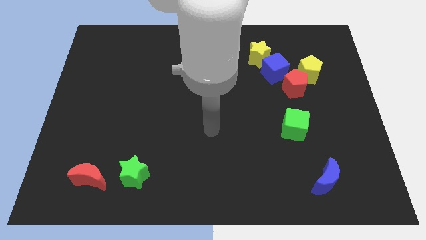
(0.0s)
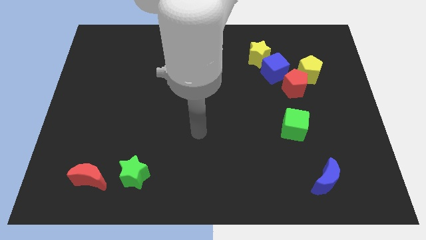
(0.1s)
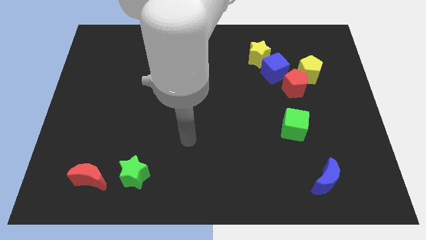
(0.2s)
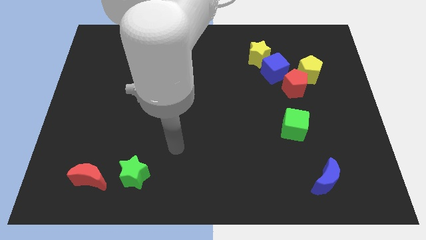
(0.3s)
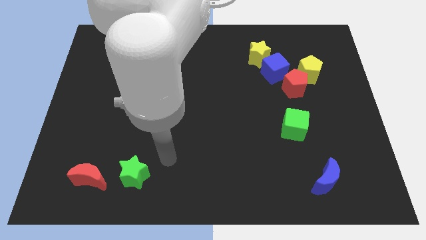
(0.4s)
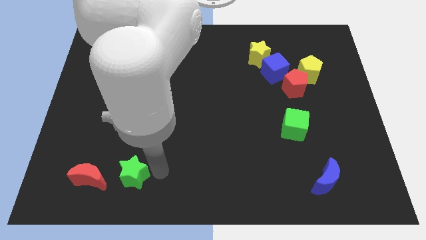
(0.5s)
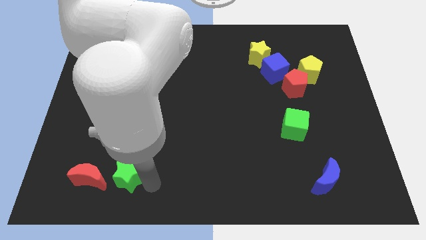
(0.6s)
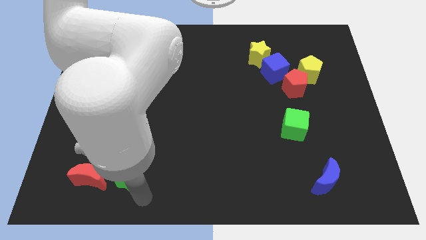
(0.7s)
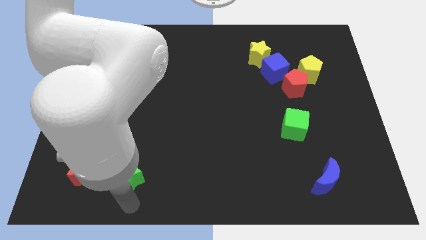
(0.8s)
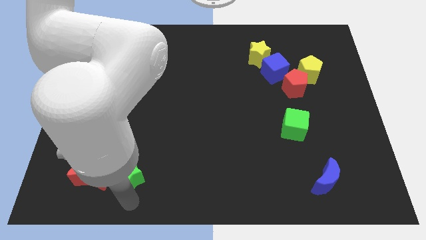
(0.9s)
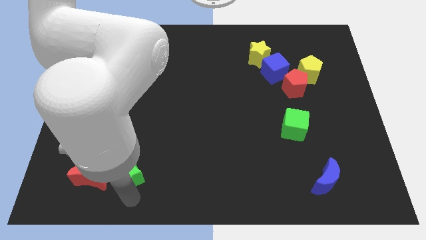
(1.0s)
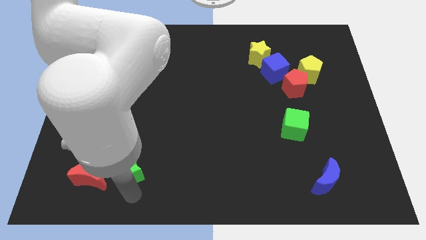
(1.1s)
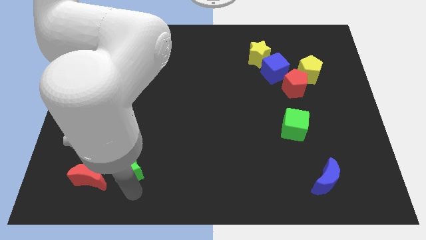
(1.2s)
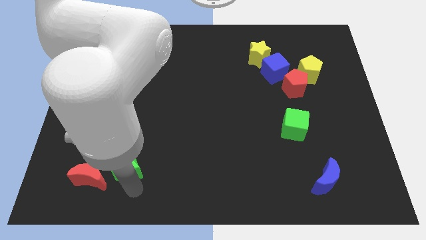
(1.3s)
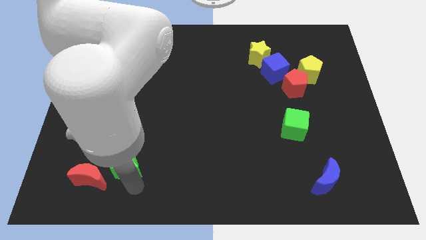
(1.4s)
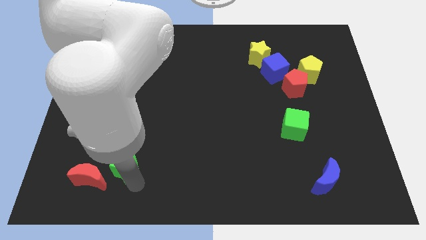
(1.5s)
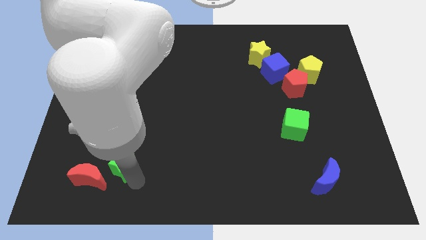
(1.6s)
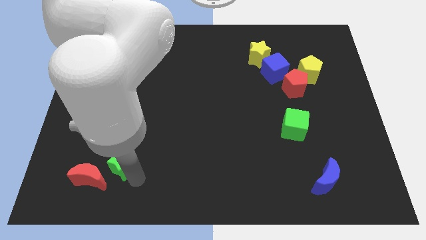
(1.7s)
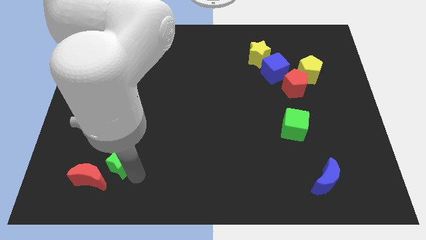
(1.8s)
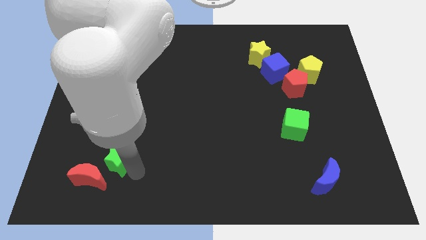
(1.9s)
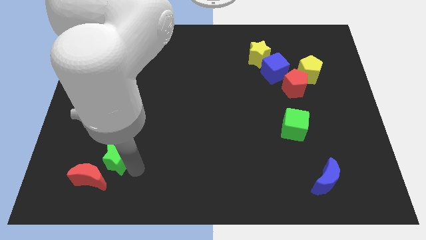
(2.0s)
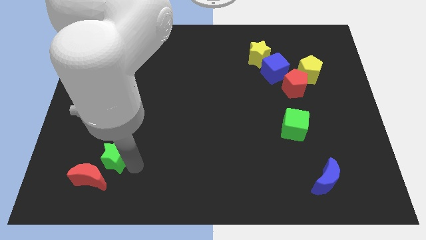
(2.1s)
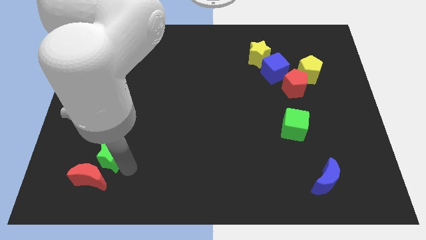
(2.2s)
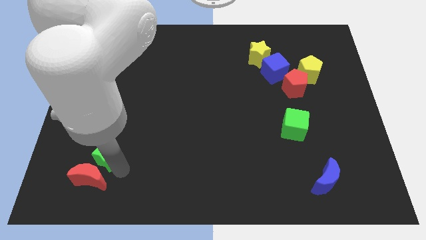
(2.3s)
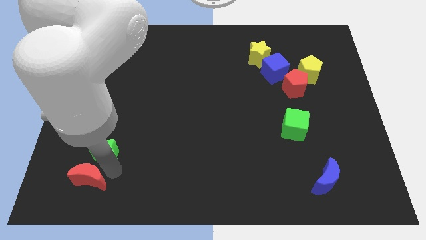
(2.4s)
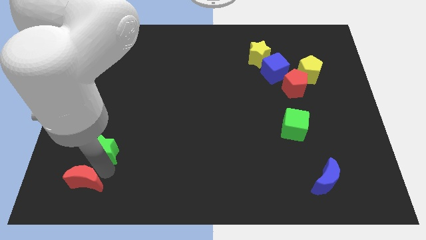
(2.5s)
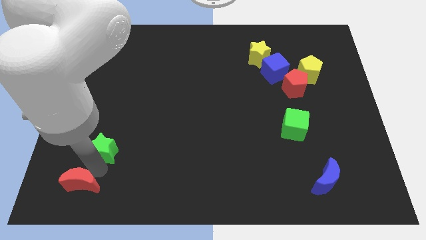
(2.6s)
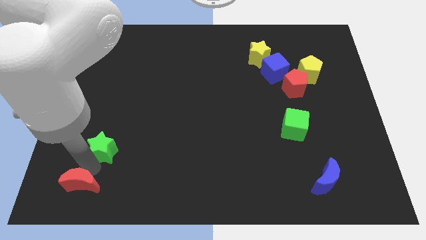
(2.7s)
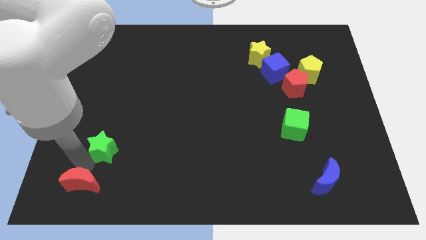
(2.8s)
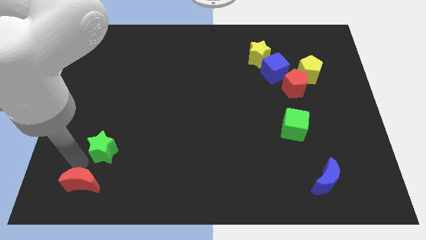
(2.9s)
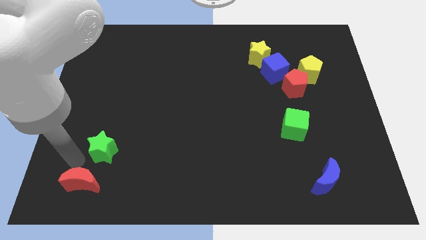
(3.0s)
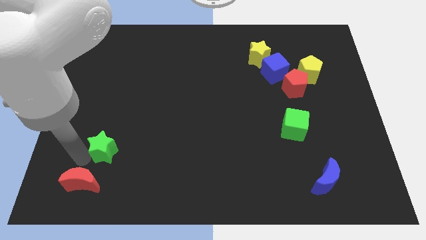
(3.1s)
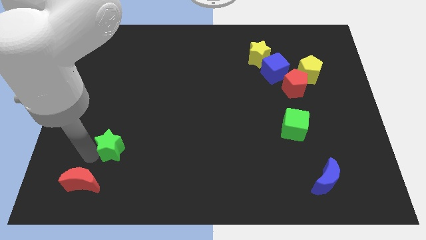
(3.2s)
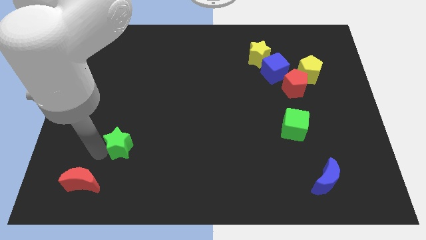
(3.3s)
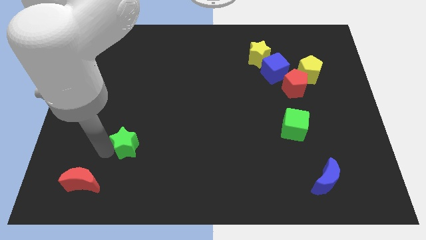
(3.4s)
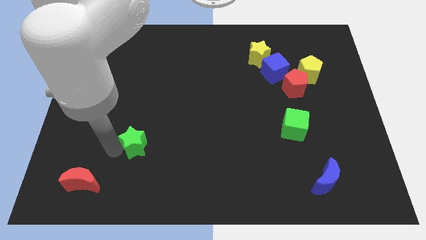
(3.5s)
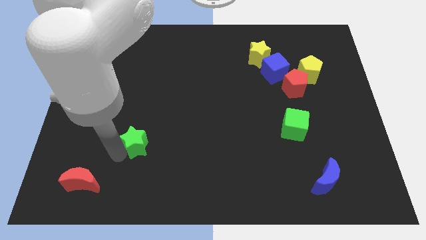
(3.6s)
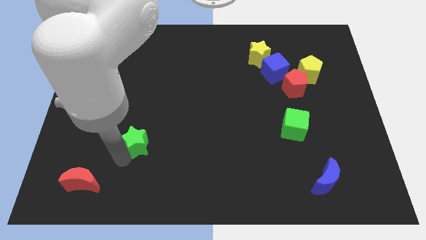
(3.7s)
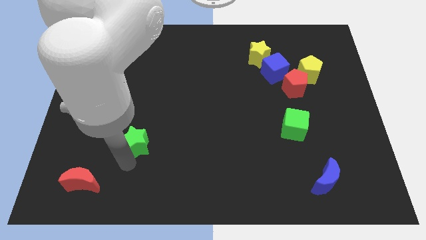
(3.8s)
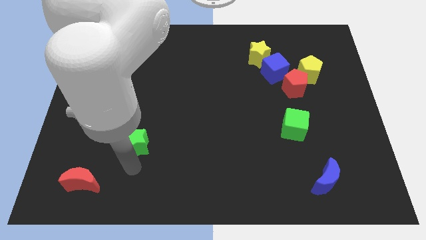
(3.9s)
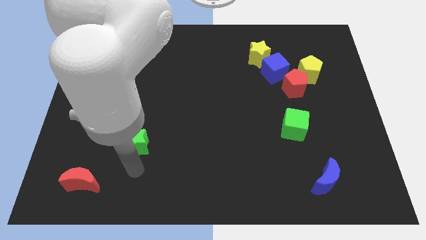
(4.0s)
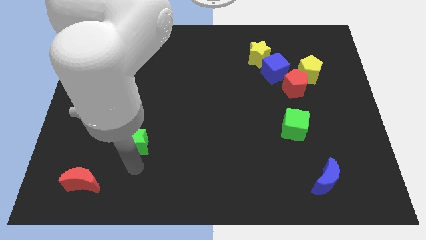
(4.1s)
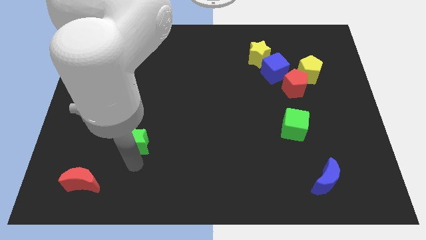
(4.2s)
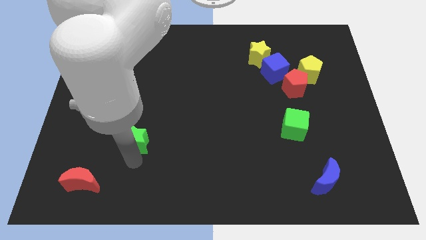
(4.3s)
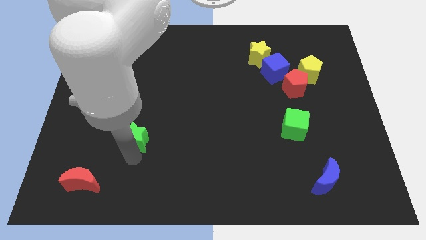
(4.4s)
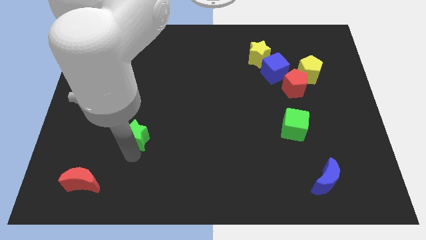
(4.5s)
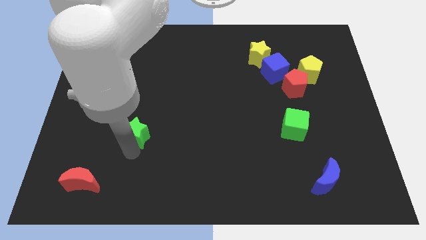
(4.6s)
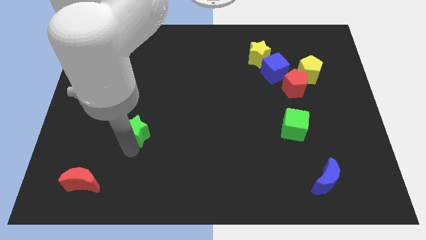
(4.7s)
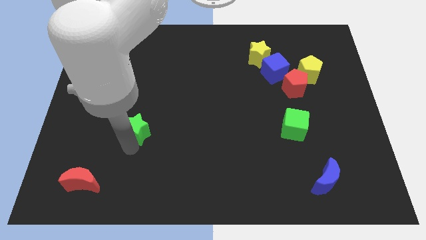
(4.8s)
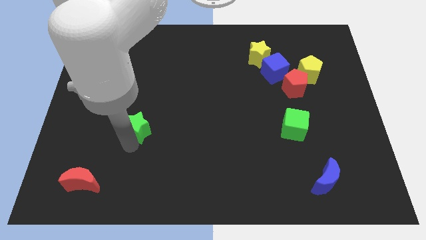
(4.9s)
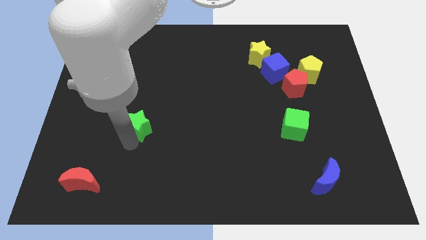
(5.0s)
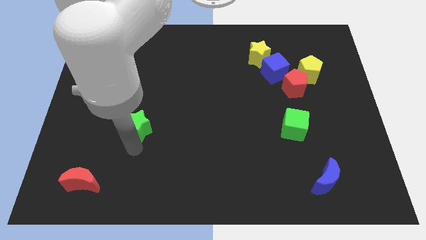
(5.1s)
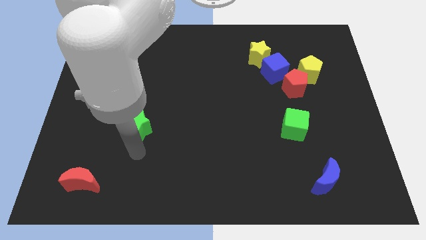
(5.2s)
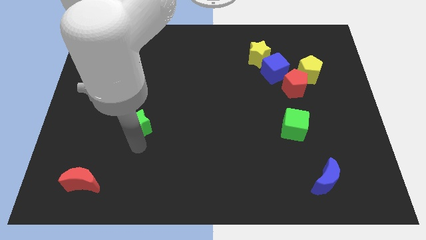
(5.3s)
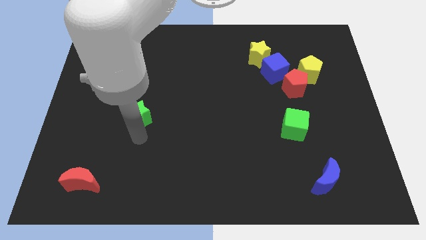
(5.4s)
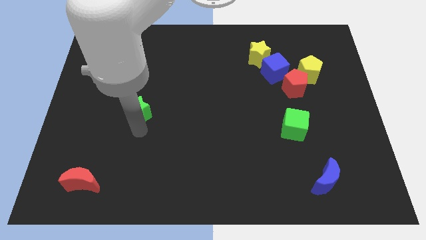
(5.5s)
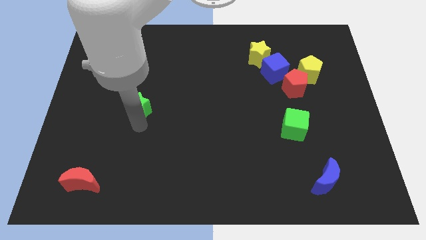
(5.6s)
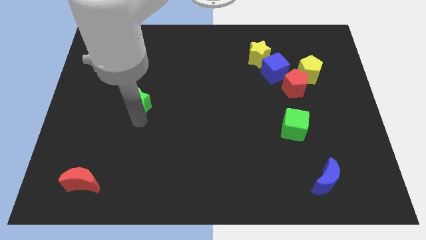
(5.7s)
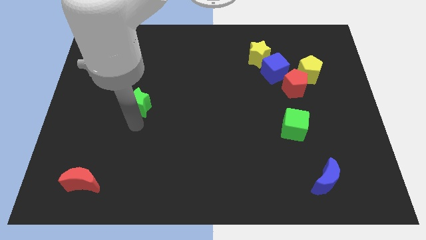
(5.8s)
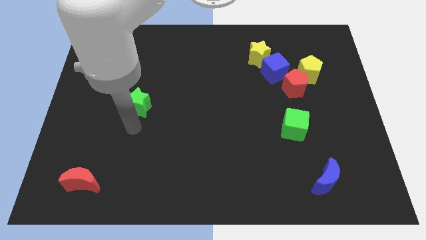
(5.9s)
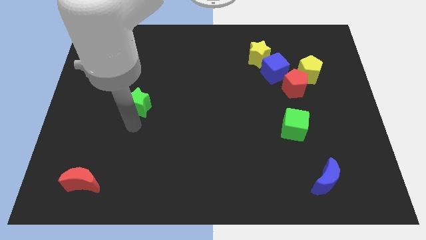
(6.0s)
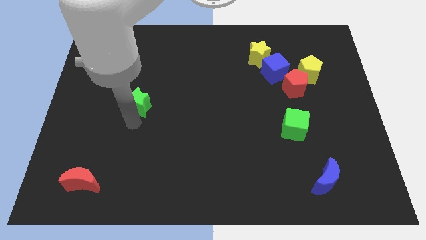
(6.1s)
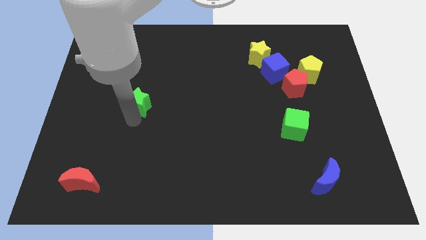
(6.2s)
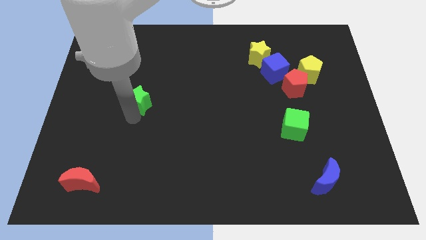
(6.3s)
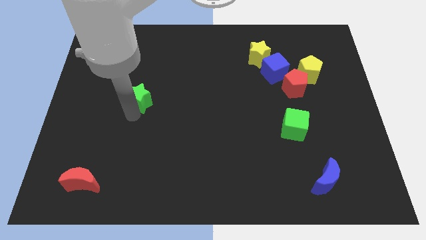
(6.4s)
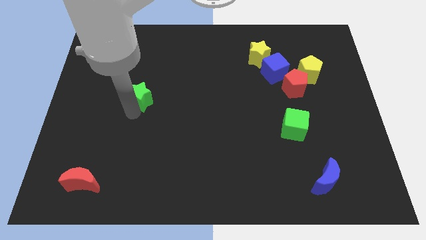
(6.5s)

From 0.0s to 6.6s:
slide the green star up

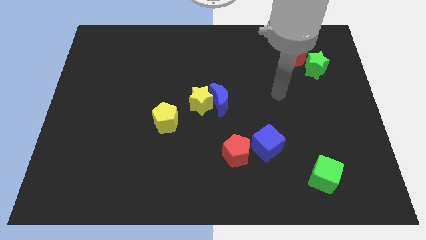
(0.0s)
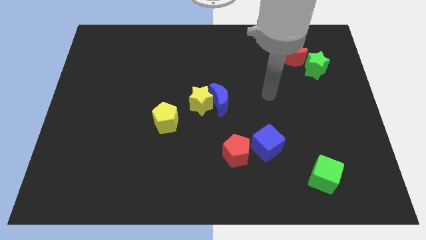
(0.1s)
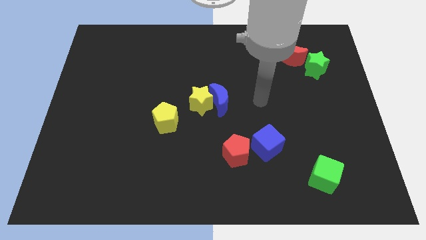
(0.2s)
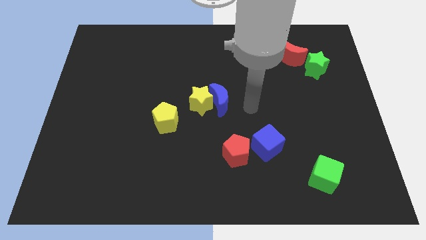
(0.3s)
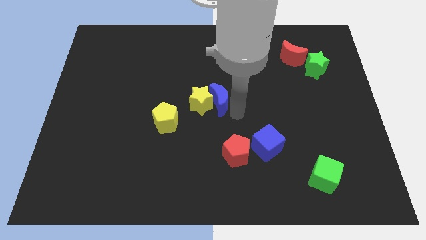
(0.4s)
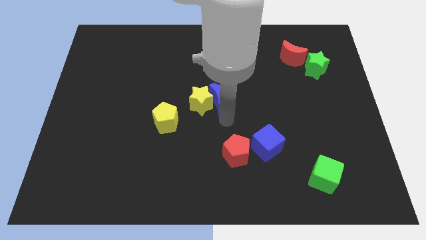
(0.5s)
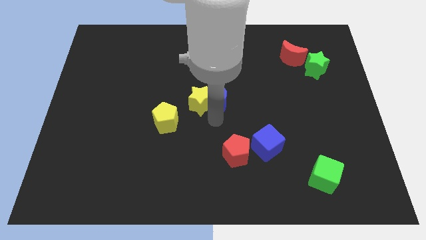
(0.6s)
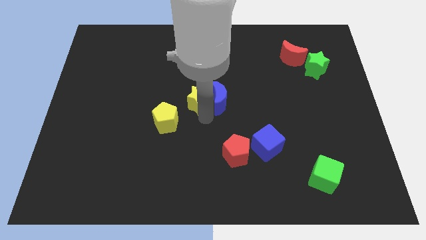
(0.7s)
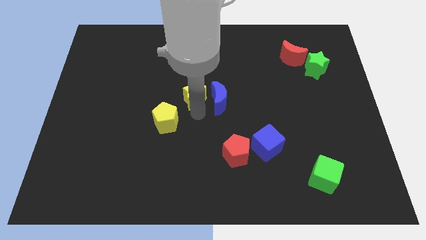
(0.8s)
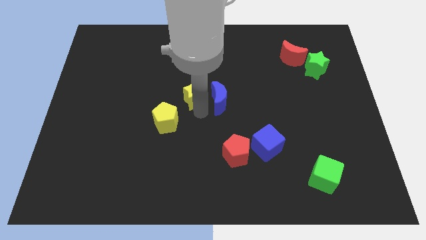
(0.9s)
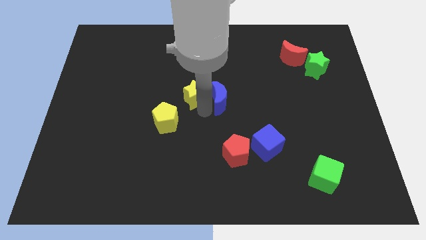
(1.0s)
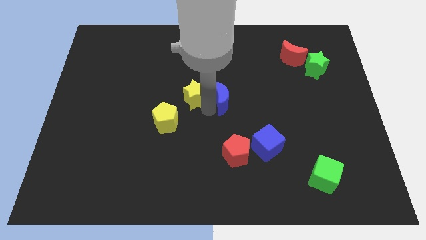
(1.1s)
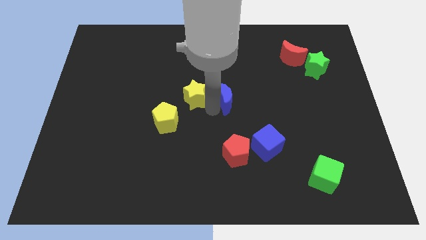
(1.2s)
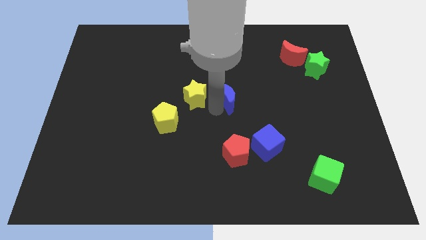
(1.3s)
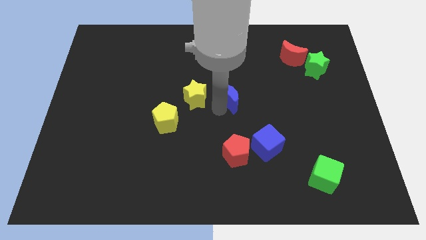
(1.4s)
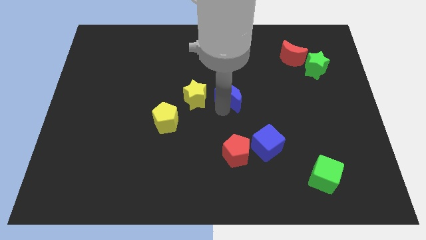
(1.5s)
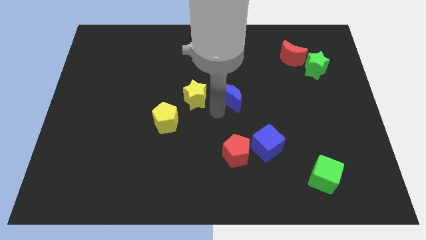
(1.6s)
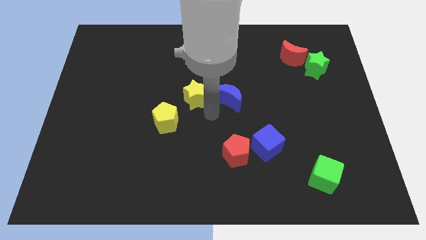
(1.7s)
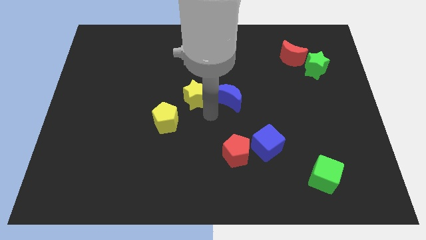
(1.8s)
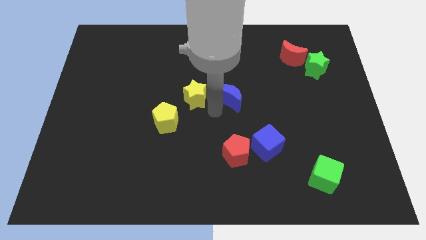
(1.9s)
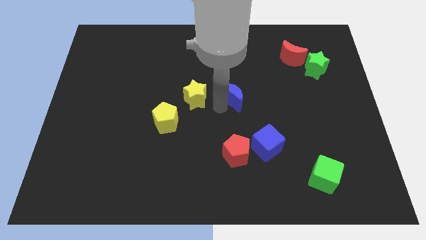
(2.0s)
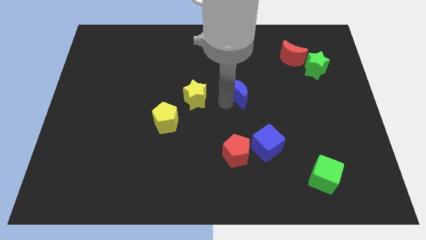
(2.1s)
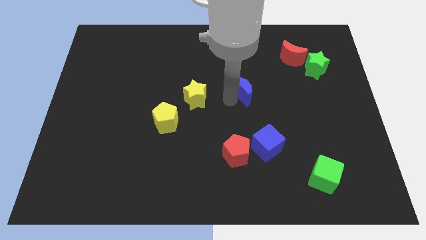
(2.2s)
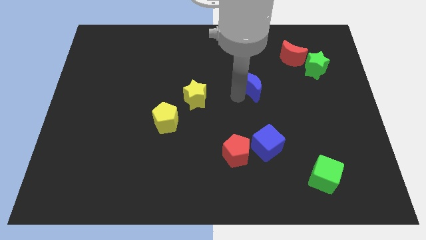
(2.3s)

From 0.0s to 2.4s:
move the blue moon upwards and to the right diagonally a bit
